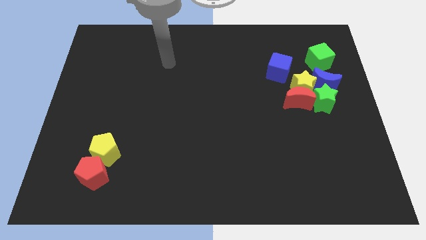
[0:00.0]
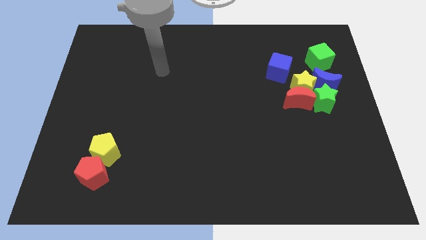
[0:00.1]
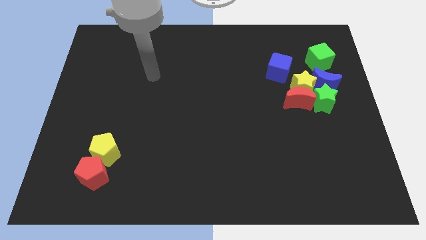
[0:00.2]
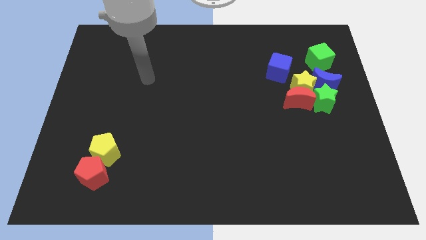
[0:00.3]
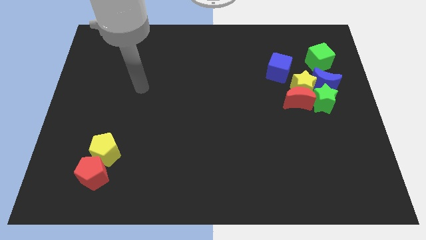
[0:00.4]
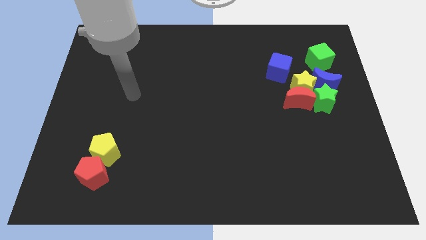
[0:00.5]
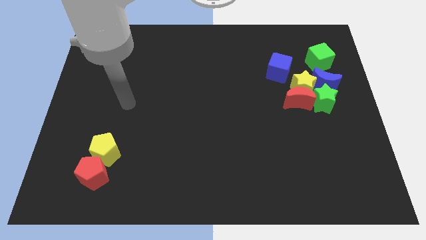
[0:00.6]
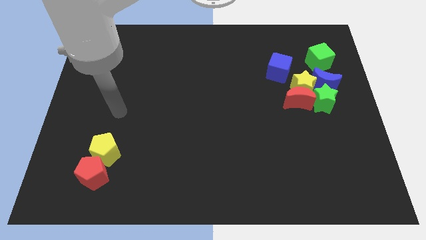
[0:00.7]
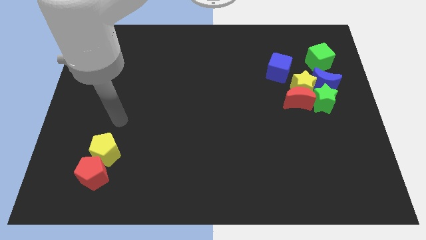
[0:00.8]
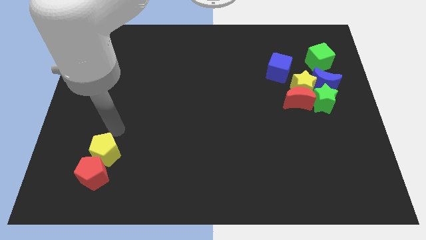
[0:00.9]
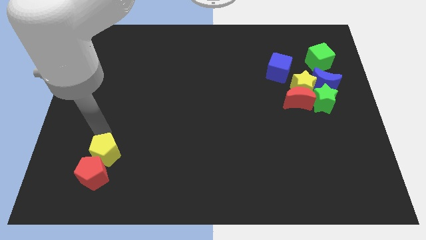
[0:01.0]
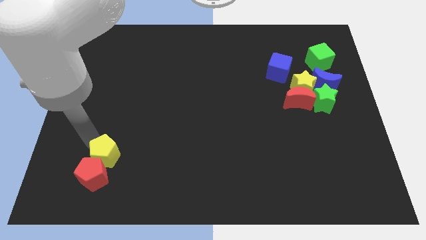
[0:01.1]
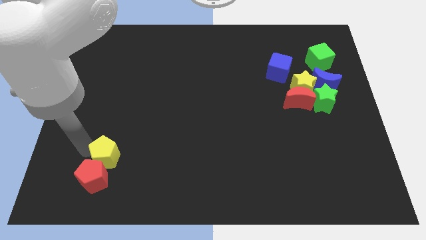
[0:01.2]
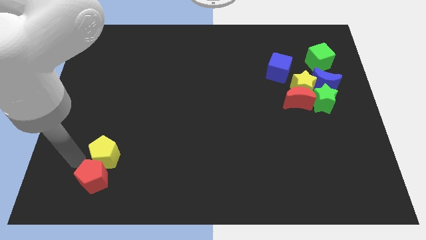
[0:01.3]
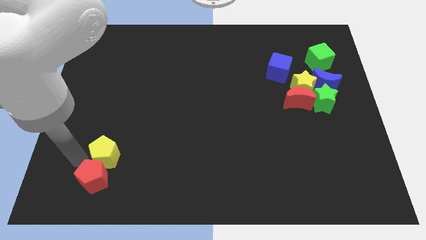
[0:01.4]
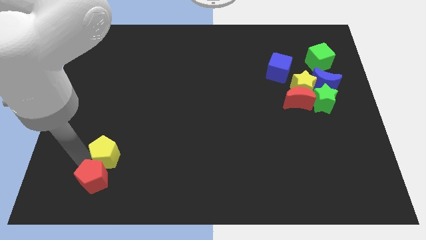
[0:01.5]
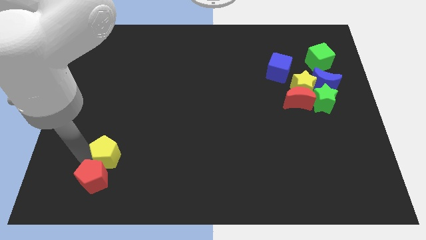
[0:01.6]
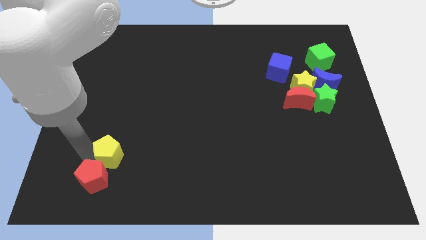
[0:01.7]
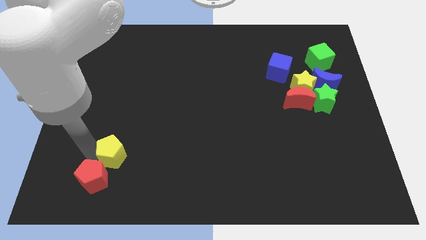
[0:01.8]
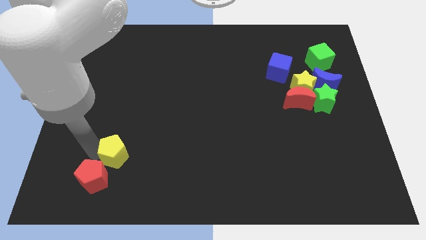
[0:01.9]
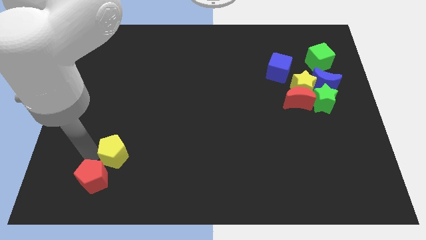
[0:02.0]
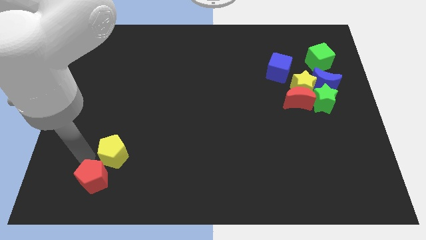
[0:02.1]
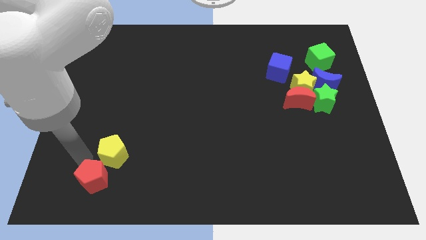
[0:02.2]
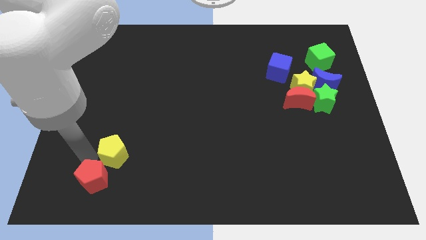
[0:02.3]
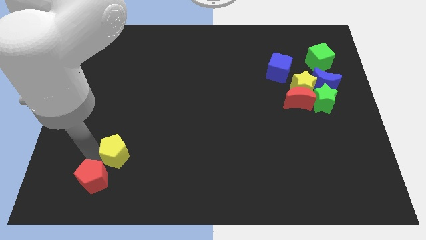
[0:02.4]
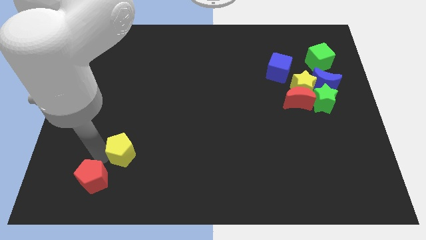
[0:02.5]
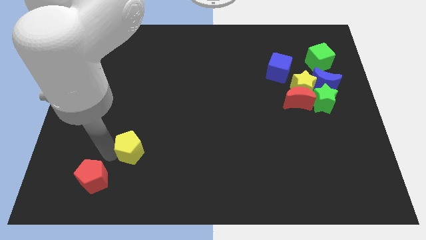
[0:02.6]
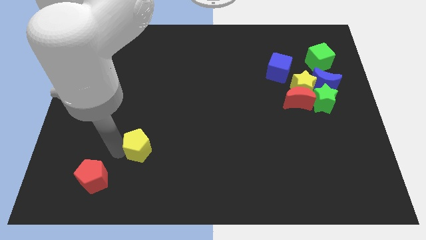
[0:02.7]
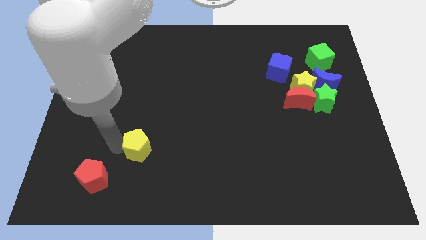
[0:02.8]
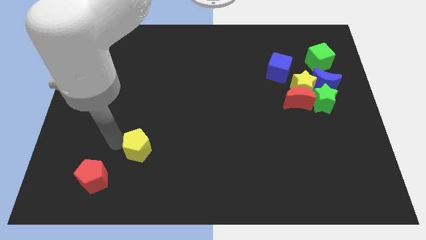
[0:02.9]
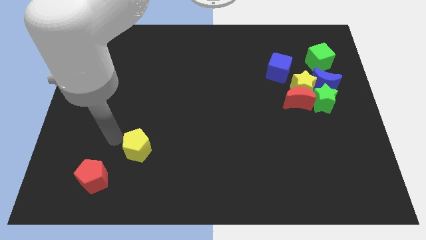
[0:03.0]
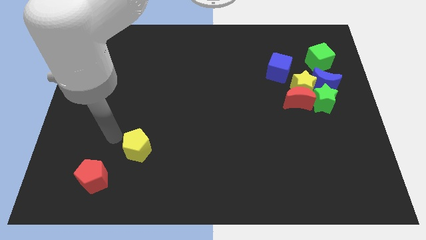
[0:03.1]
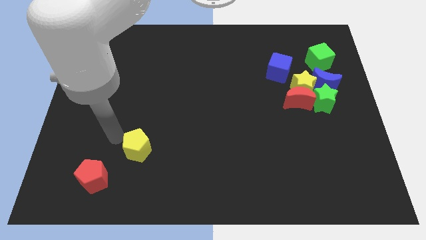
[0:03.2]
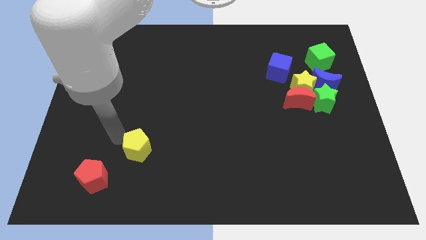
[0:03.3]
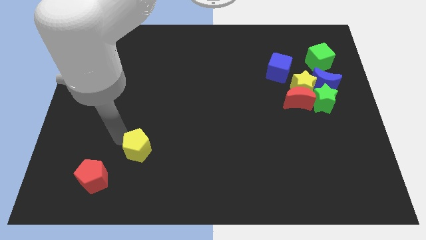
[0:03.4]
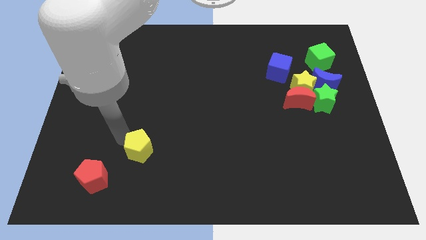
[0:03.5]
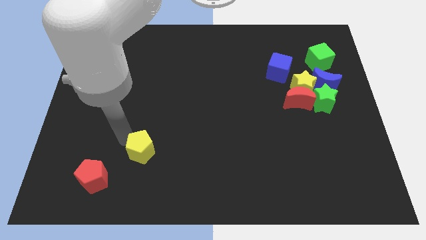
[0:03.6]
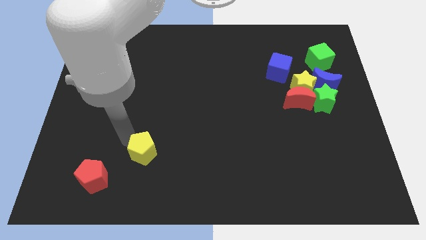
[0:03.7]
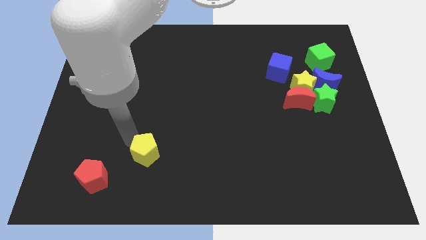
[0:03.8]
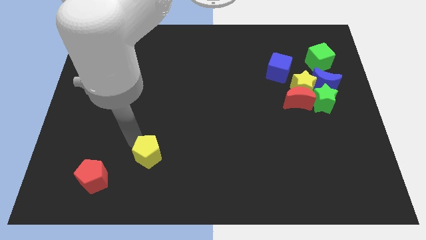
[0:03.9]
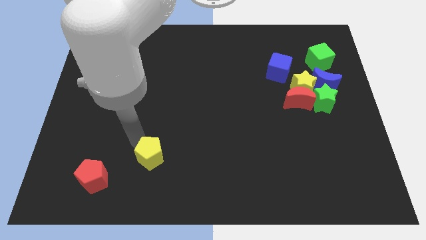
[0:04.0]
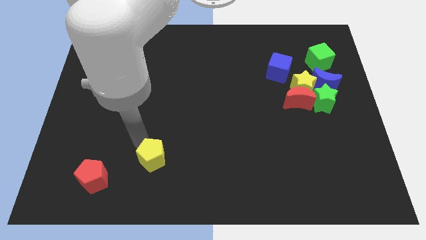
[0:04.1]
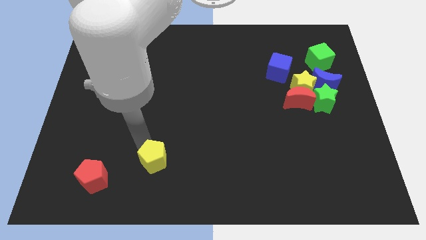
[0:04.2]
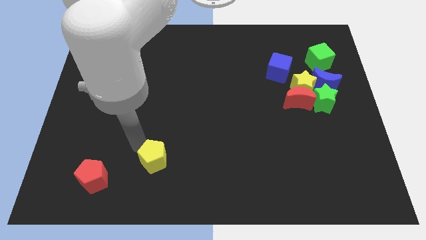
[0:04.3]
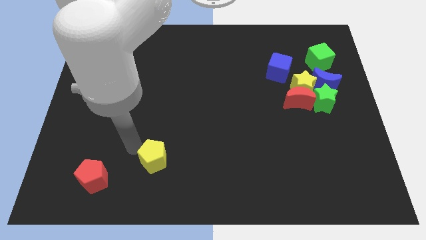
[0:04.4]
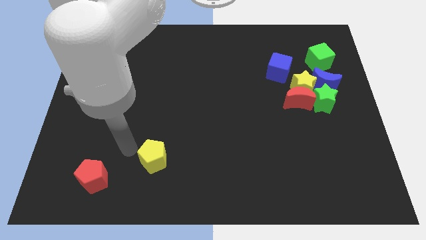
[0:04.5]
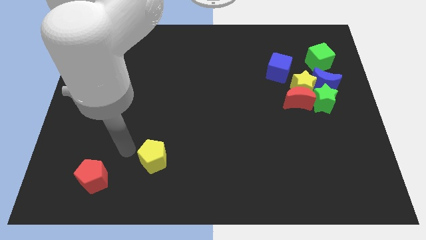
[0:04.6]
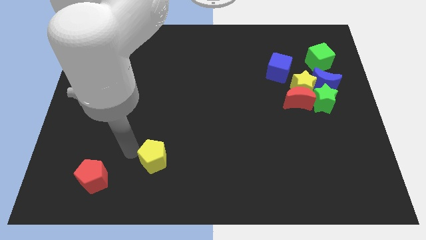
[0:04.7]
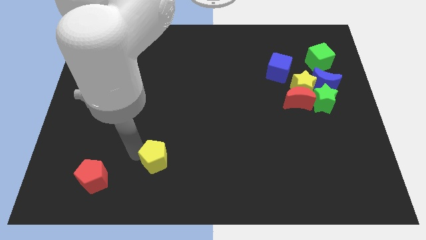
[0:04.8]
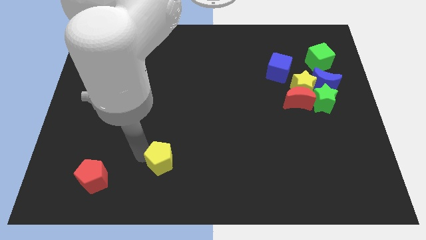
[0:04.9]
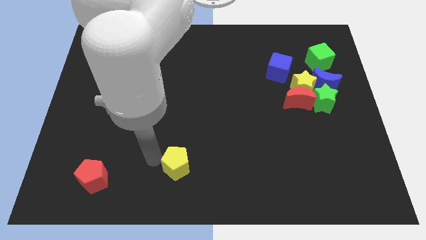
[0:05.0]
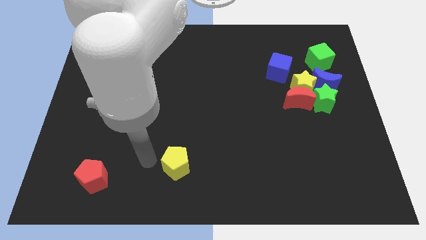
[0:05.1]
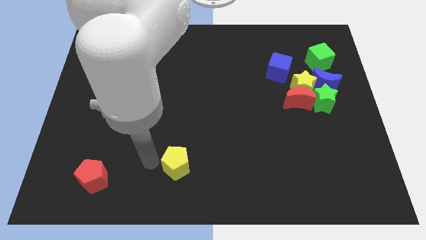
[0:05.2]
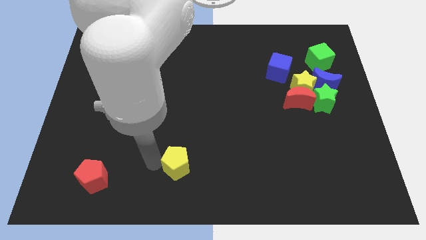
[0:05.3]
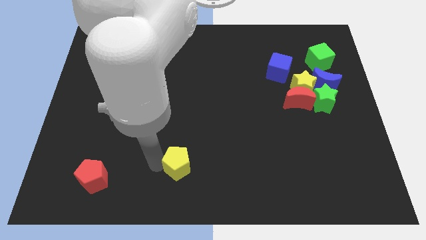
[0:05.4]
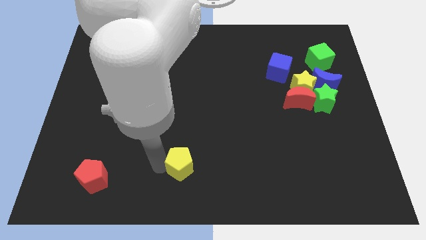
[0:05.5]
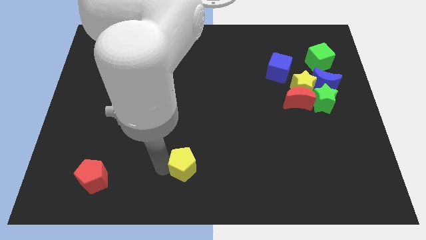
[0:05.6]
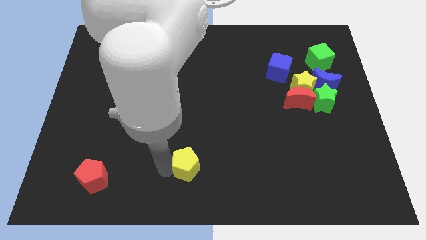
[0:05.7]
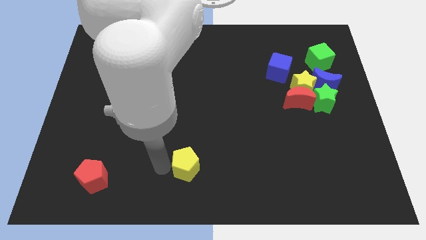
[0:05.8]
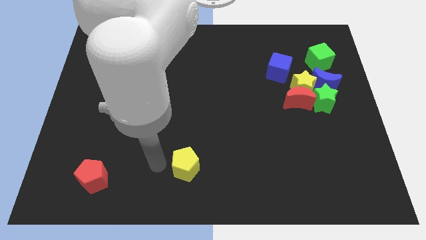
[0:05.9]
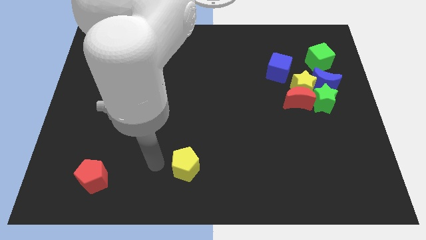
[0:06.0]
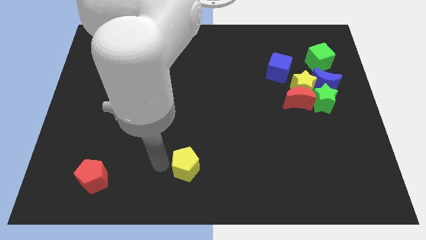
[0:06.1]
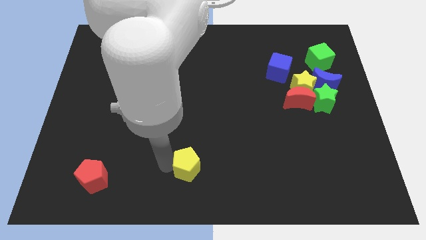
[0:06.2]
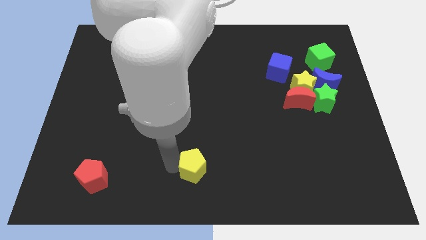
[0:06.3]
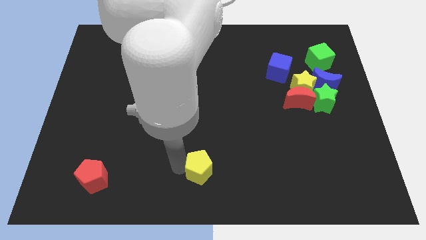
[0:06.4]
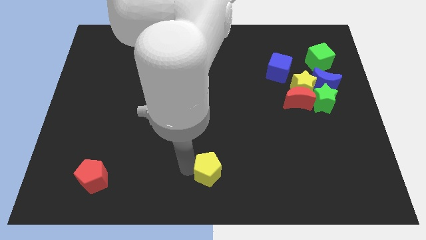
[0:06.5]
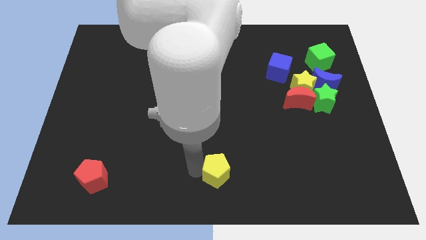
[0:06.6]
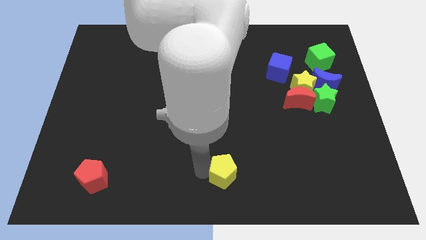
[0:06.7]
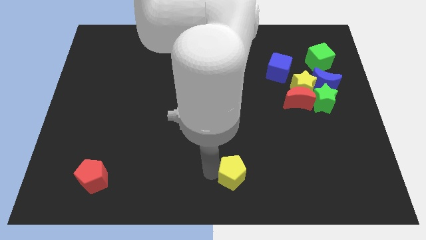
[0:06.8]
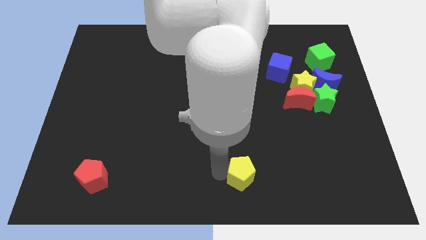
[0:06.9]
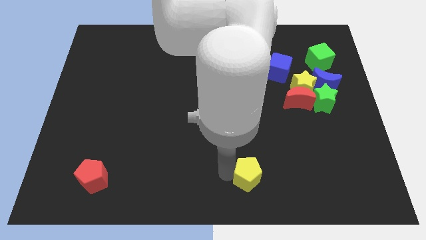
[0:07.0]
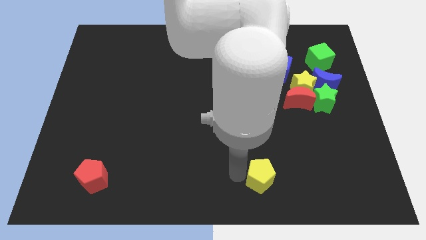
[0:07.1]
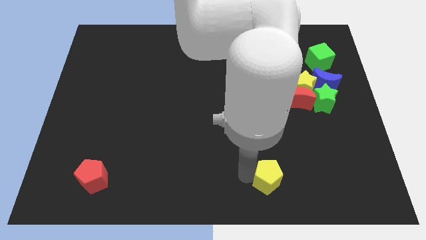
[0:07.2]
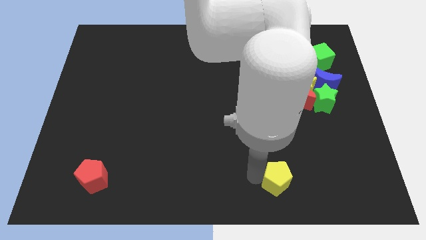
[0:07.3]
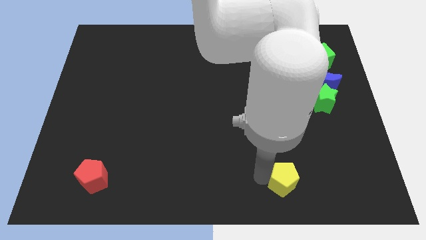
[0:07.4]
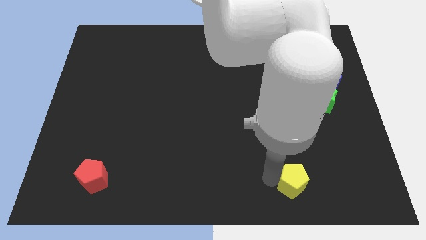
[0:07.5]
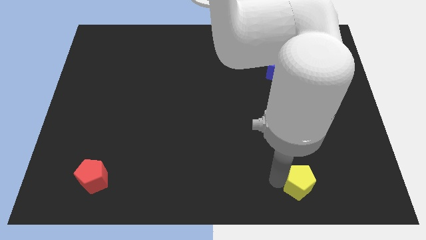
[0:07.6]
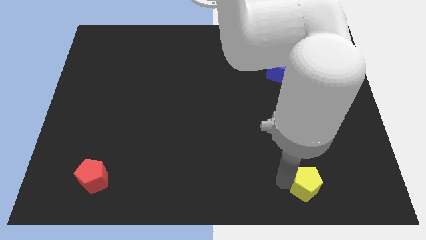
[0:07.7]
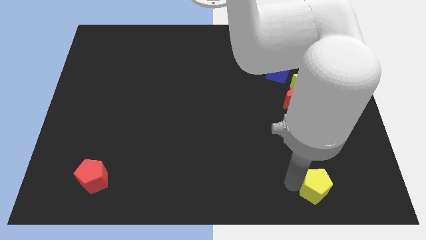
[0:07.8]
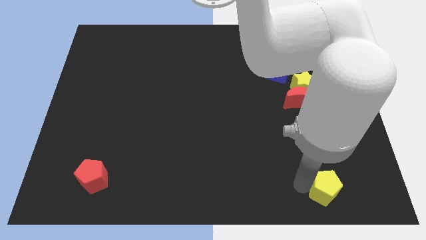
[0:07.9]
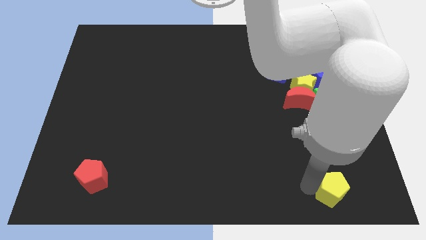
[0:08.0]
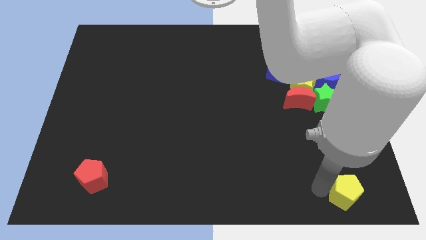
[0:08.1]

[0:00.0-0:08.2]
slide the yellow pentagon to the bottom right
